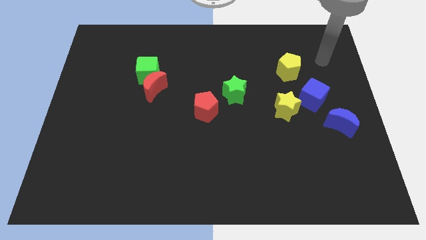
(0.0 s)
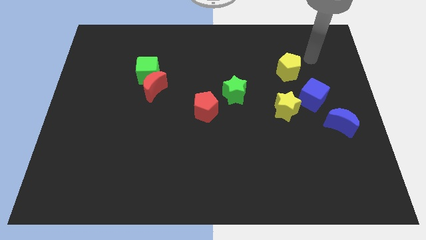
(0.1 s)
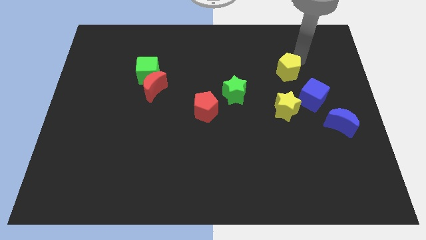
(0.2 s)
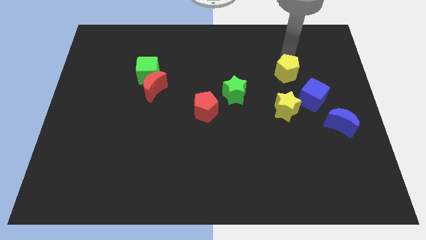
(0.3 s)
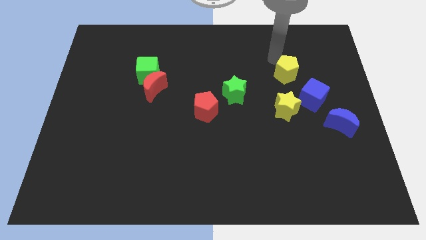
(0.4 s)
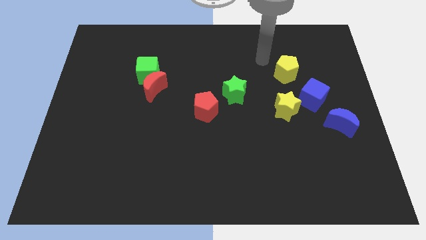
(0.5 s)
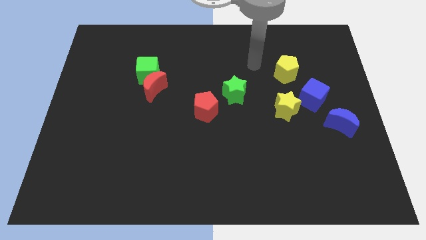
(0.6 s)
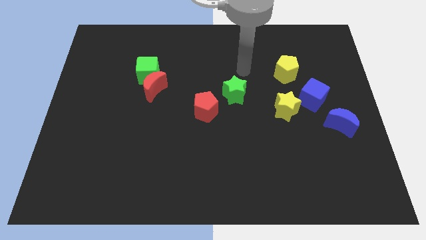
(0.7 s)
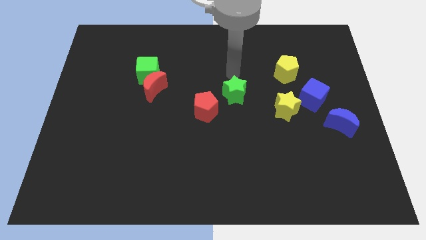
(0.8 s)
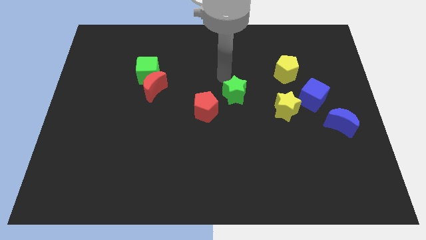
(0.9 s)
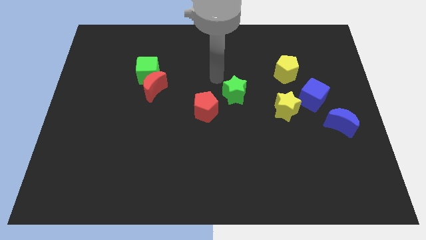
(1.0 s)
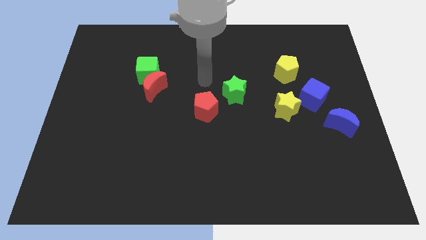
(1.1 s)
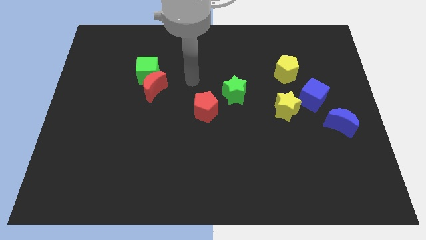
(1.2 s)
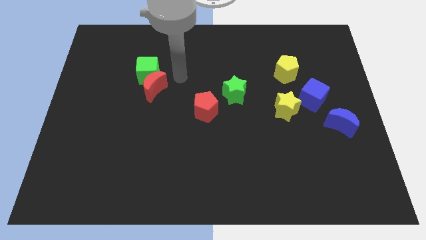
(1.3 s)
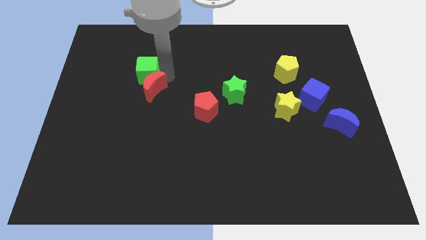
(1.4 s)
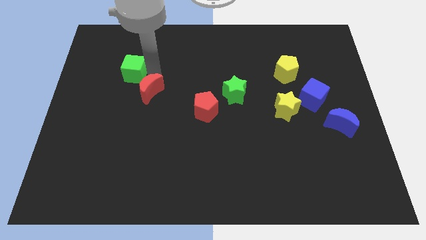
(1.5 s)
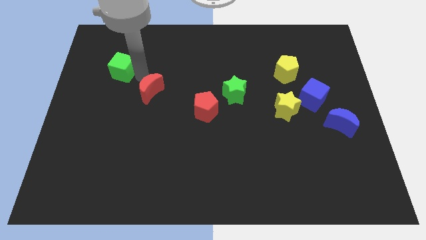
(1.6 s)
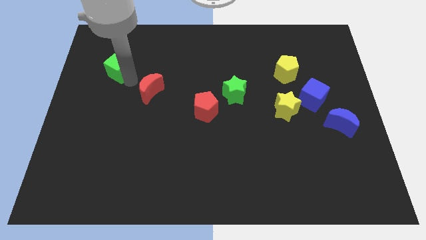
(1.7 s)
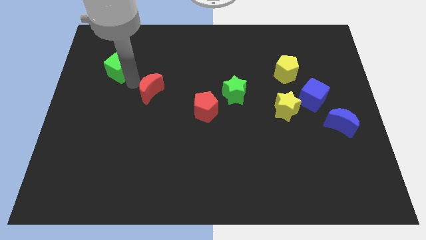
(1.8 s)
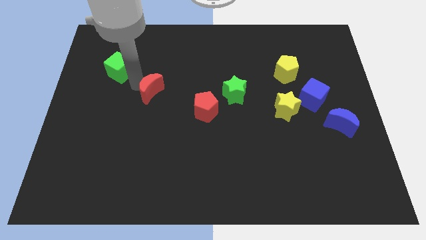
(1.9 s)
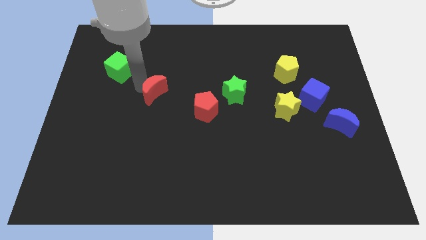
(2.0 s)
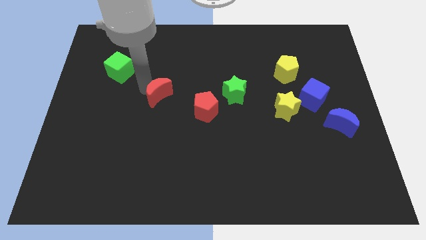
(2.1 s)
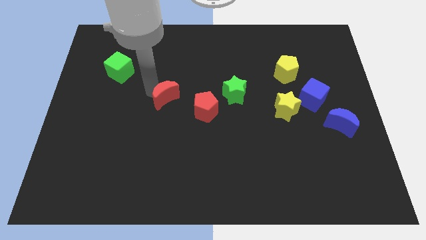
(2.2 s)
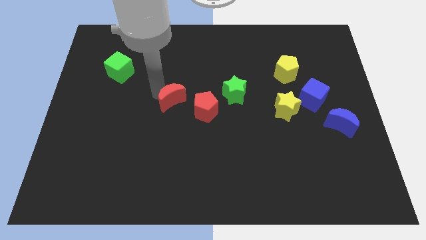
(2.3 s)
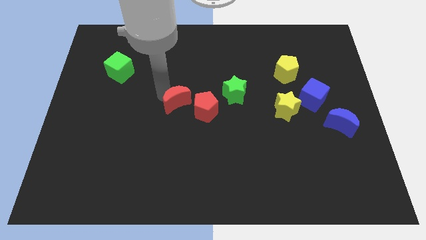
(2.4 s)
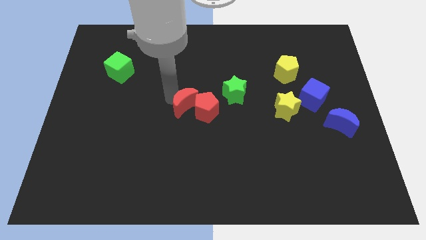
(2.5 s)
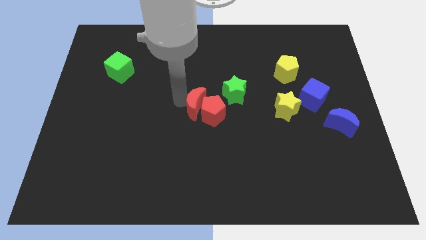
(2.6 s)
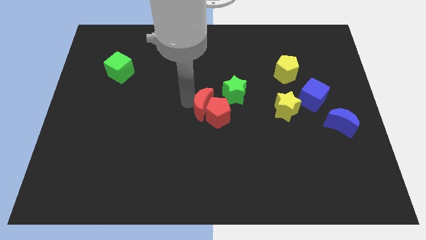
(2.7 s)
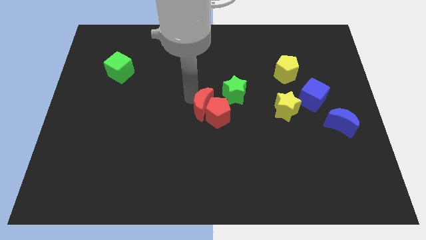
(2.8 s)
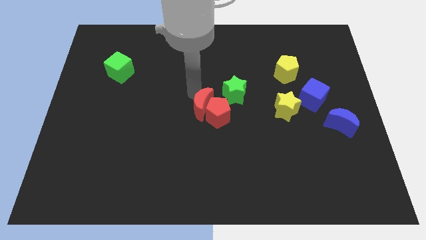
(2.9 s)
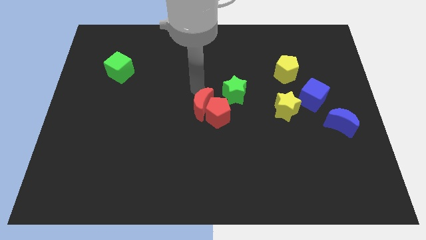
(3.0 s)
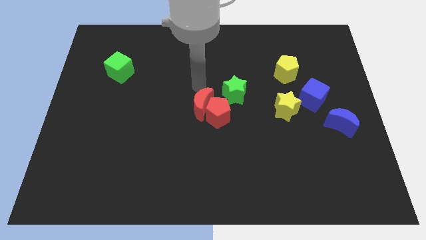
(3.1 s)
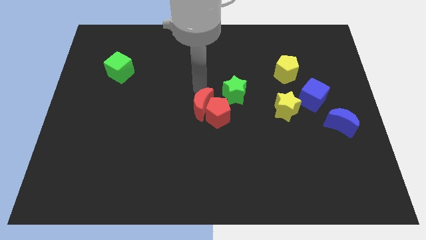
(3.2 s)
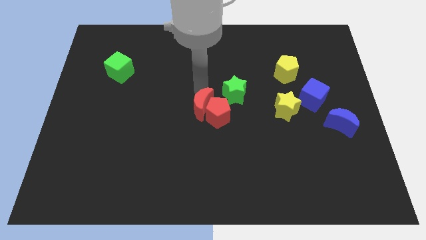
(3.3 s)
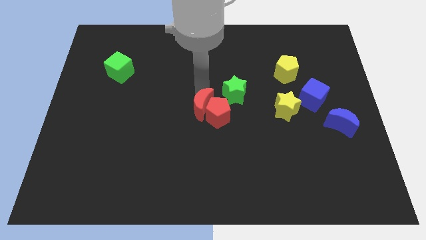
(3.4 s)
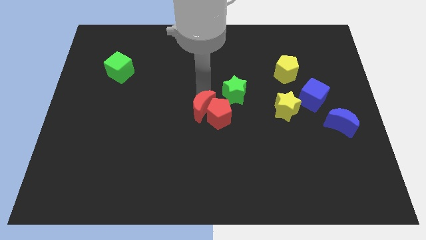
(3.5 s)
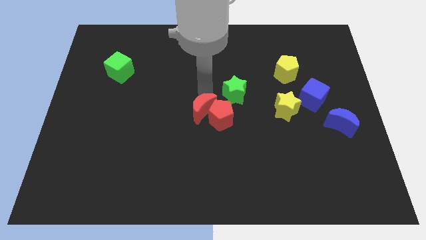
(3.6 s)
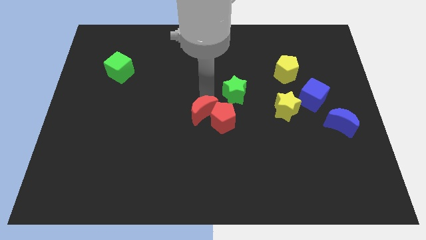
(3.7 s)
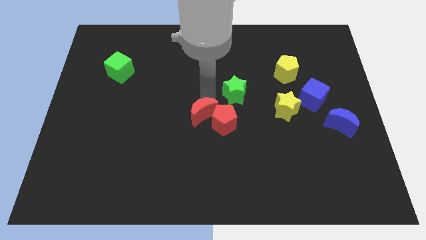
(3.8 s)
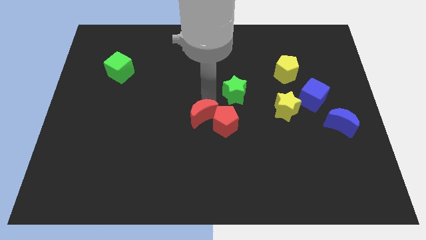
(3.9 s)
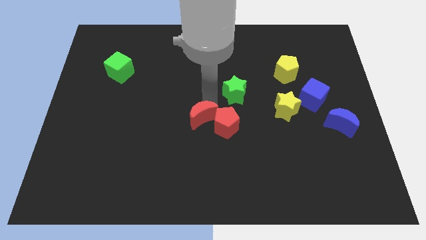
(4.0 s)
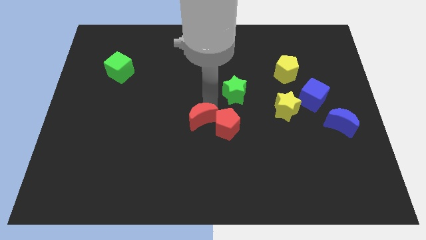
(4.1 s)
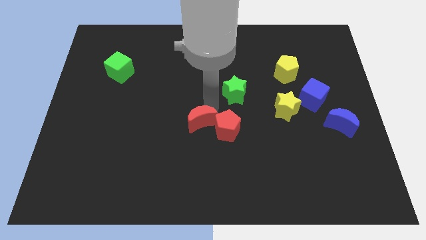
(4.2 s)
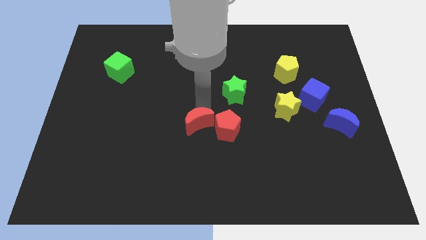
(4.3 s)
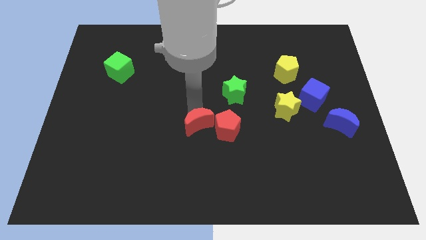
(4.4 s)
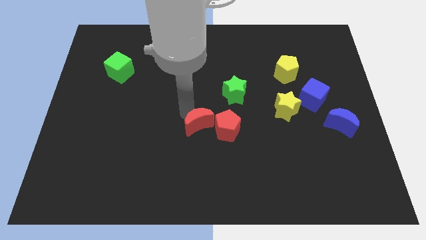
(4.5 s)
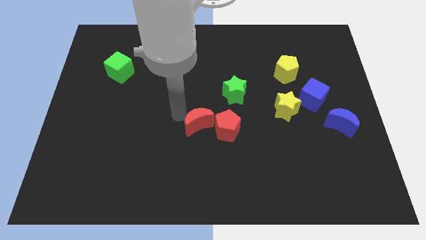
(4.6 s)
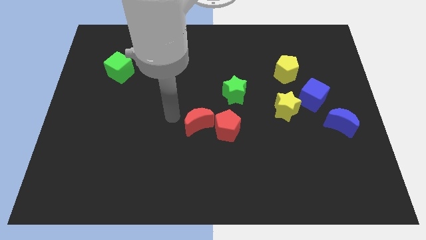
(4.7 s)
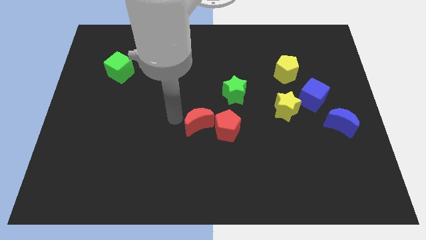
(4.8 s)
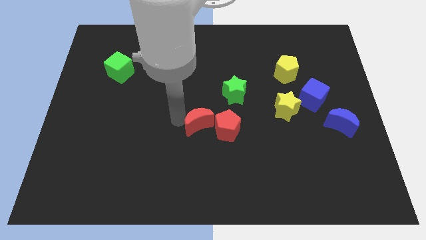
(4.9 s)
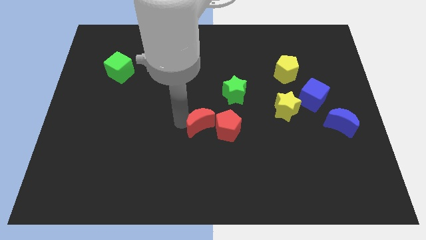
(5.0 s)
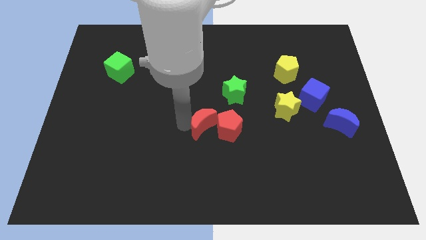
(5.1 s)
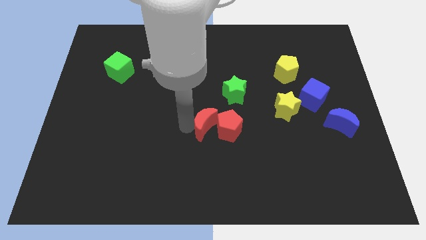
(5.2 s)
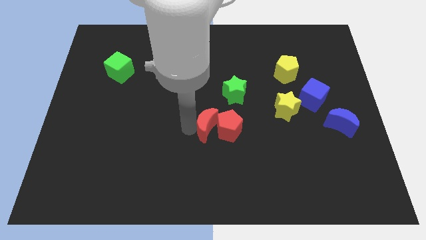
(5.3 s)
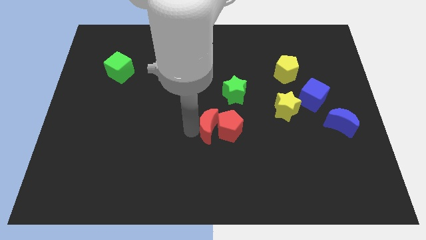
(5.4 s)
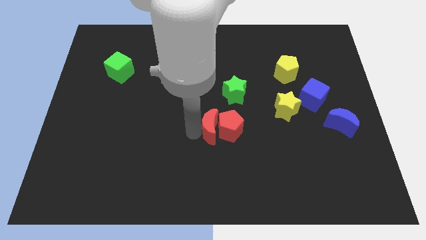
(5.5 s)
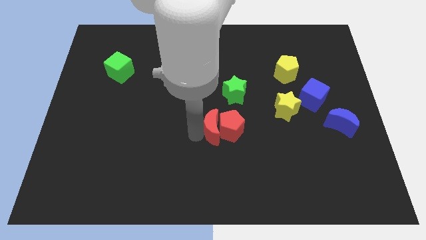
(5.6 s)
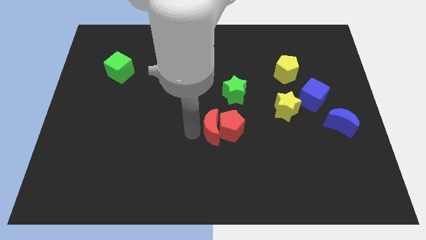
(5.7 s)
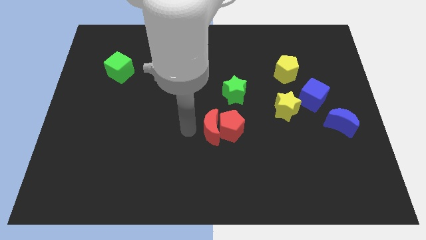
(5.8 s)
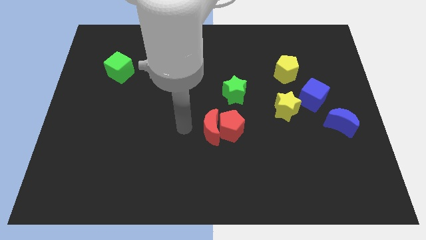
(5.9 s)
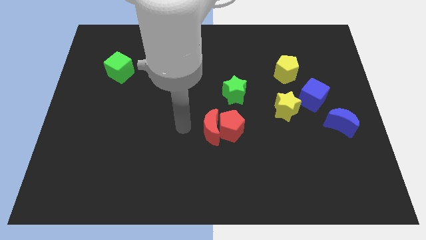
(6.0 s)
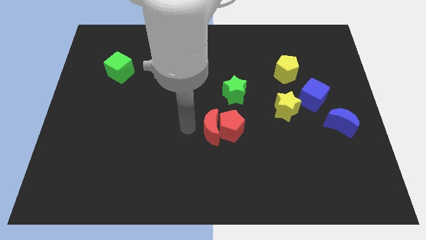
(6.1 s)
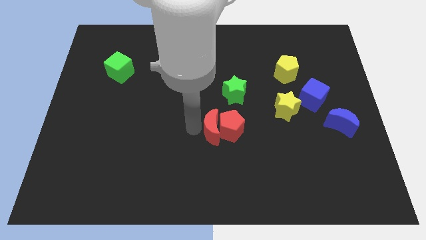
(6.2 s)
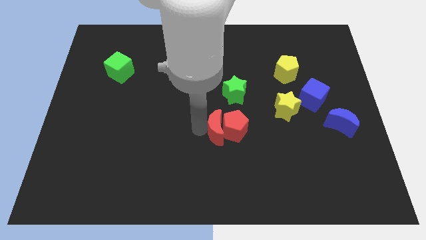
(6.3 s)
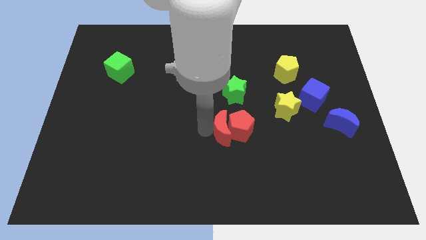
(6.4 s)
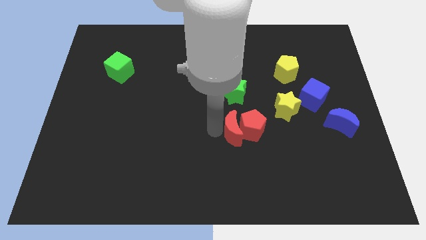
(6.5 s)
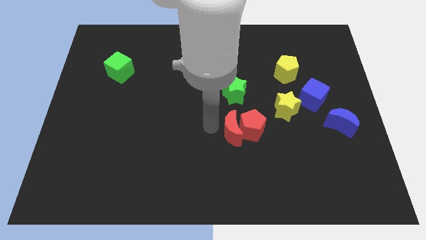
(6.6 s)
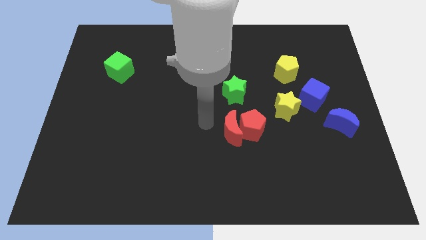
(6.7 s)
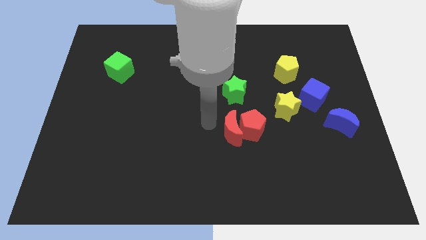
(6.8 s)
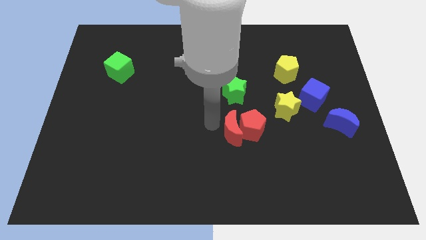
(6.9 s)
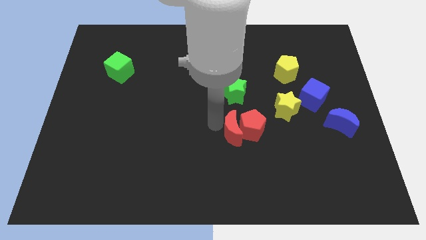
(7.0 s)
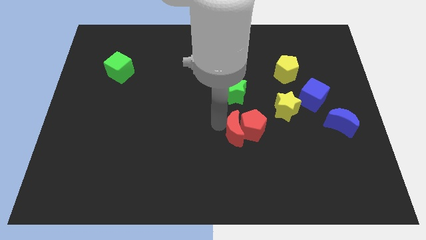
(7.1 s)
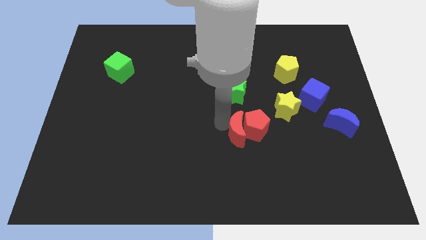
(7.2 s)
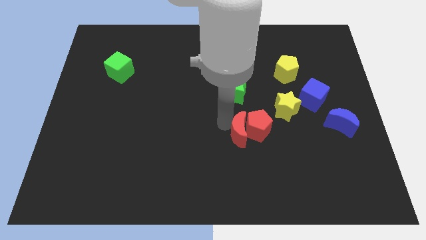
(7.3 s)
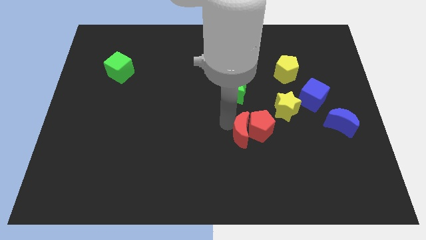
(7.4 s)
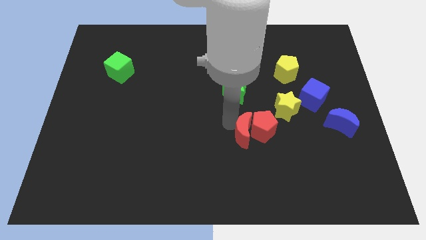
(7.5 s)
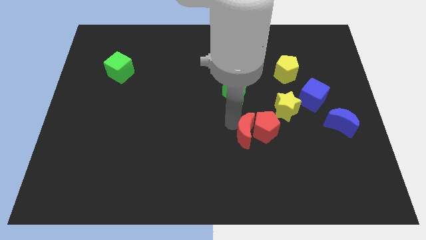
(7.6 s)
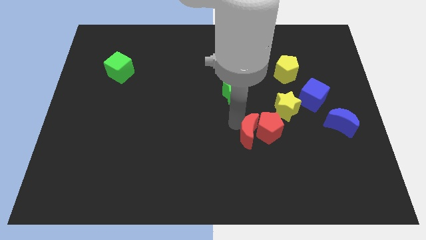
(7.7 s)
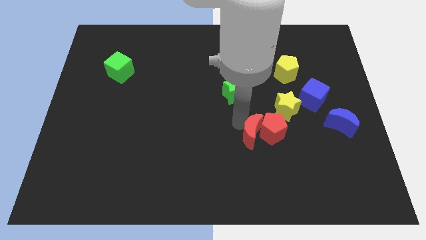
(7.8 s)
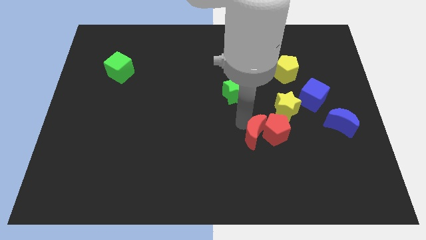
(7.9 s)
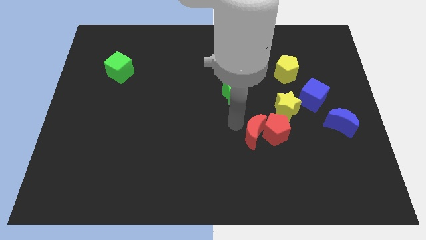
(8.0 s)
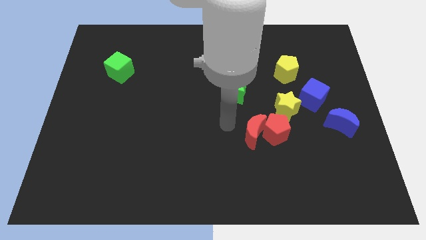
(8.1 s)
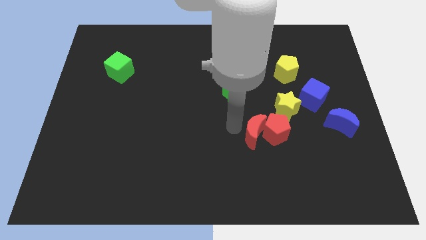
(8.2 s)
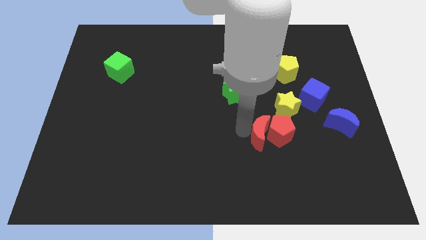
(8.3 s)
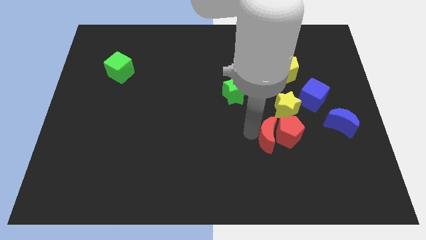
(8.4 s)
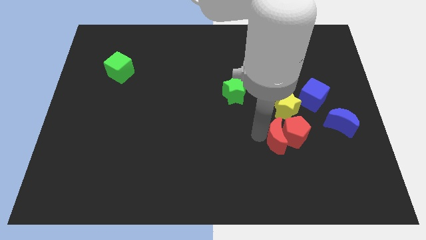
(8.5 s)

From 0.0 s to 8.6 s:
push the red moon to the bottom side of the yellow star

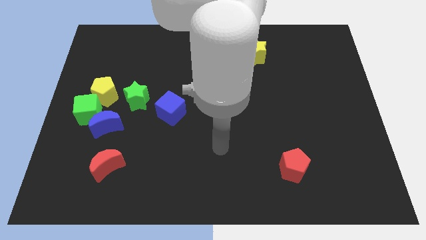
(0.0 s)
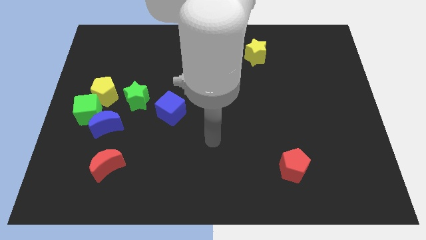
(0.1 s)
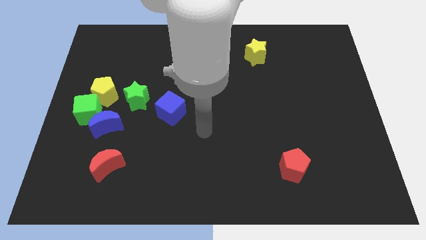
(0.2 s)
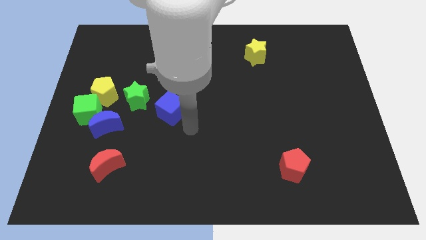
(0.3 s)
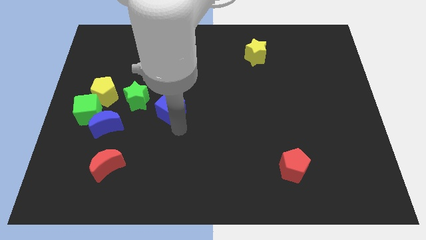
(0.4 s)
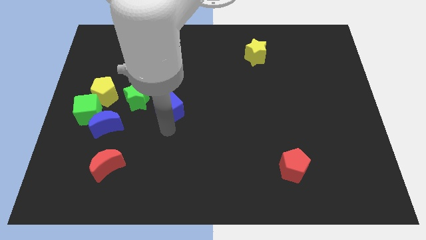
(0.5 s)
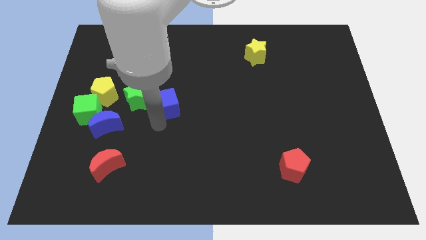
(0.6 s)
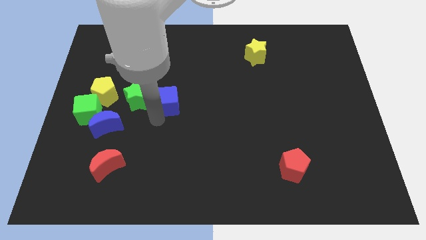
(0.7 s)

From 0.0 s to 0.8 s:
push the yellow pentagon left of the blue cube
